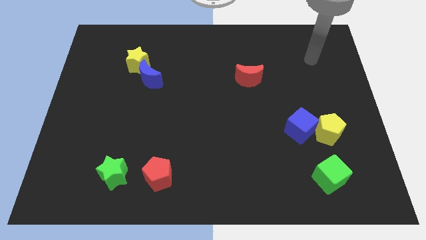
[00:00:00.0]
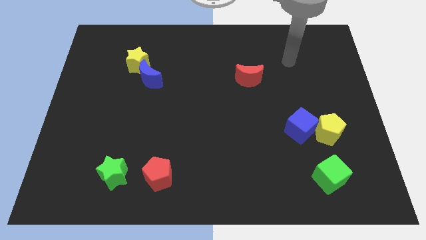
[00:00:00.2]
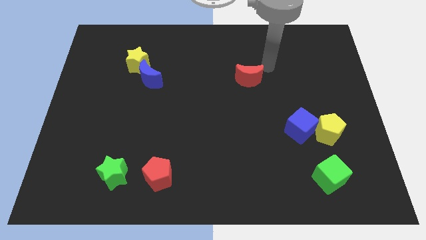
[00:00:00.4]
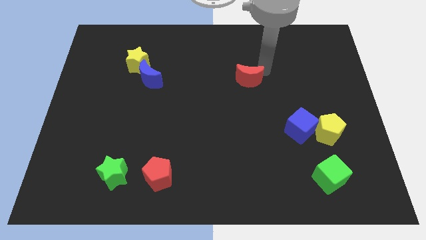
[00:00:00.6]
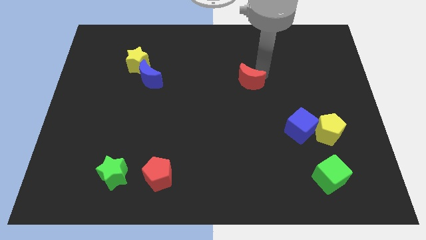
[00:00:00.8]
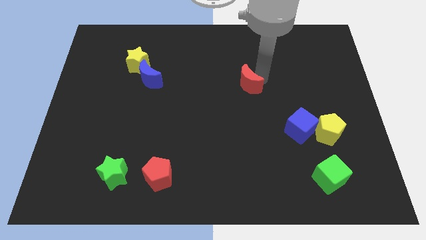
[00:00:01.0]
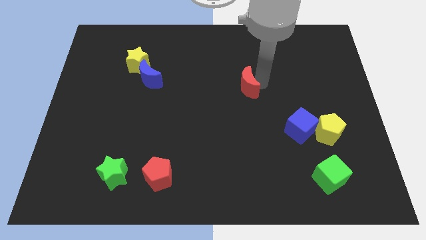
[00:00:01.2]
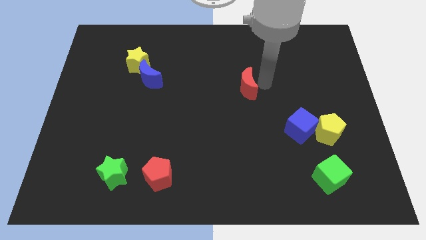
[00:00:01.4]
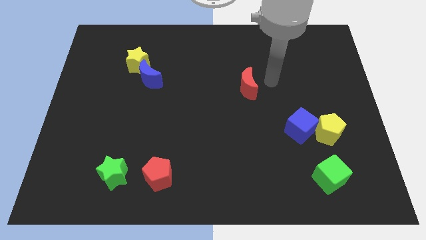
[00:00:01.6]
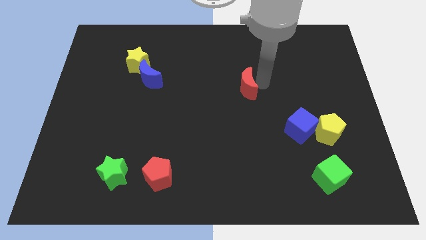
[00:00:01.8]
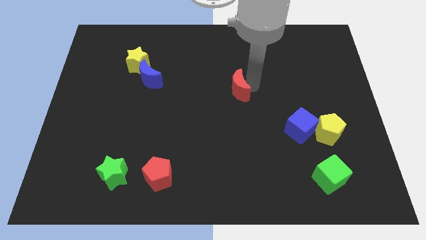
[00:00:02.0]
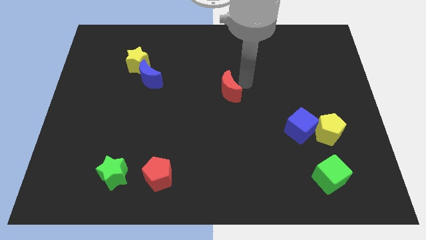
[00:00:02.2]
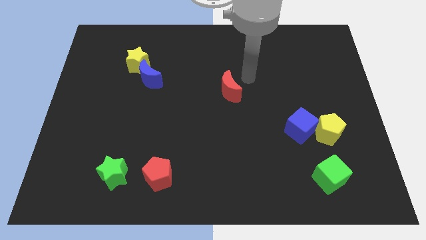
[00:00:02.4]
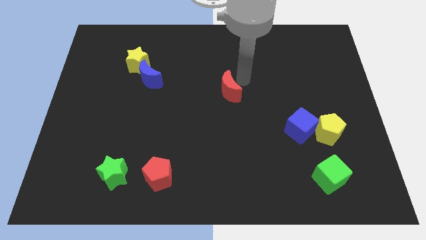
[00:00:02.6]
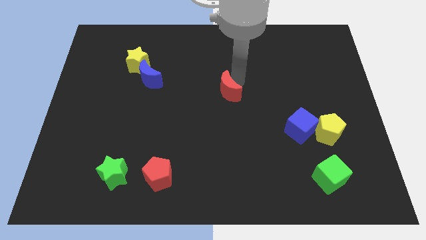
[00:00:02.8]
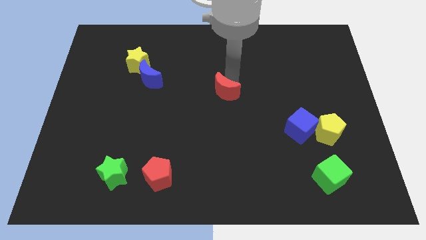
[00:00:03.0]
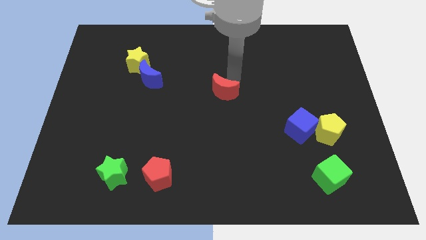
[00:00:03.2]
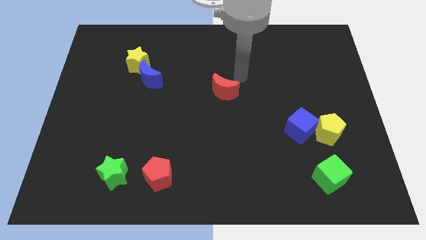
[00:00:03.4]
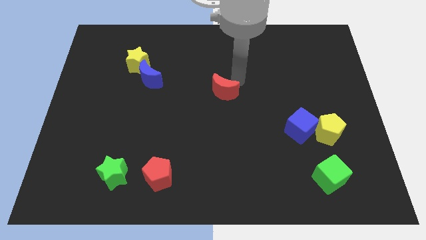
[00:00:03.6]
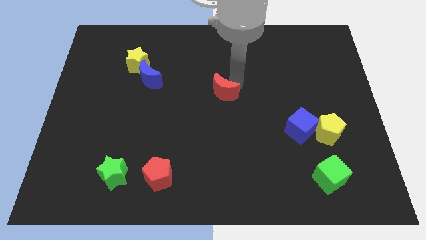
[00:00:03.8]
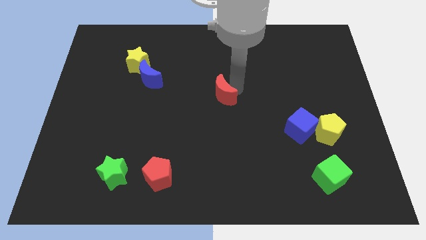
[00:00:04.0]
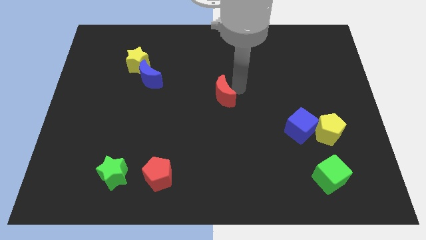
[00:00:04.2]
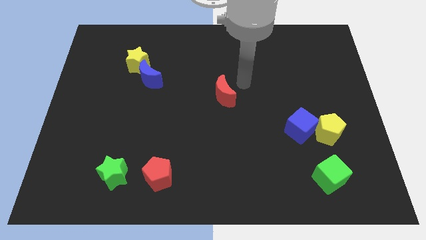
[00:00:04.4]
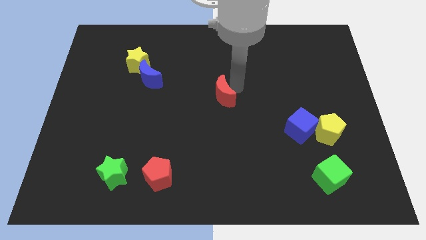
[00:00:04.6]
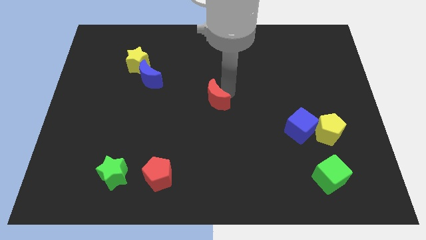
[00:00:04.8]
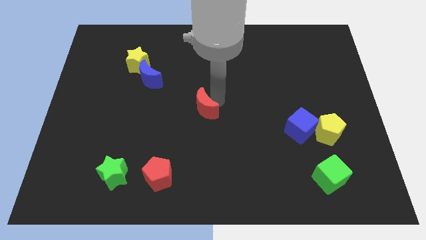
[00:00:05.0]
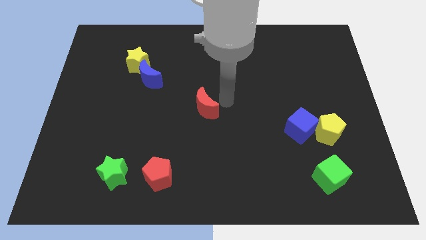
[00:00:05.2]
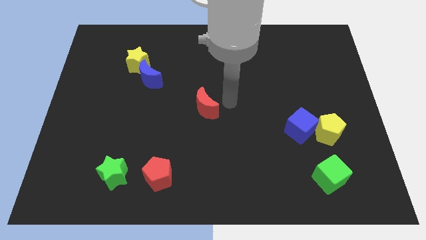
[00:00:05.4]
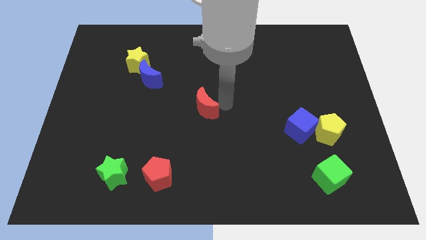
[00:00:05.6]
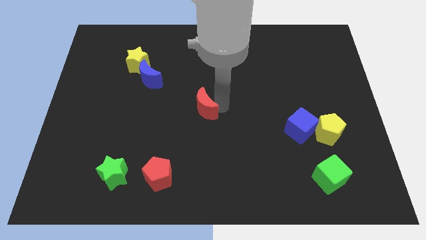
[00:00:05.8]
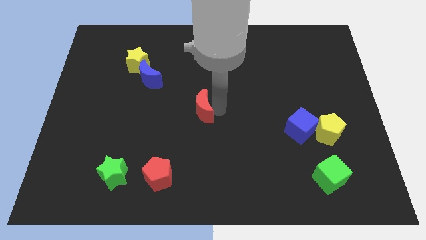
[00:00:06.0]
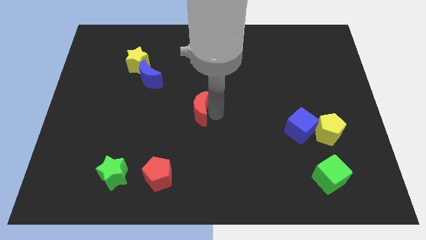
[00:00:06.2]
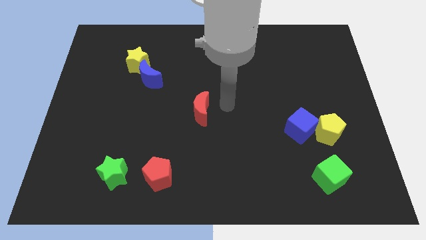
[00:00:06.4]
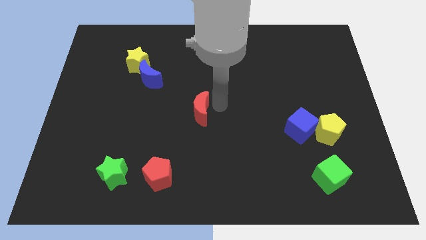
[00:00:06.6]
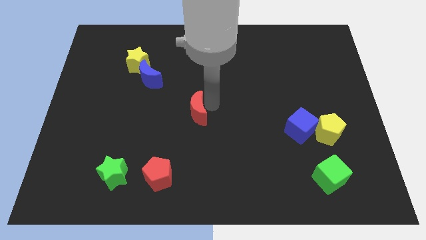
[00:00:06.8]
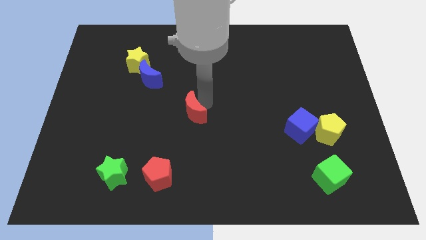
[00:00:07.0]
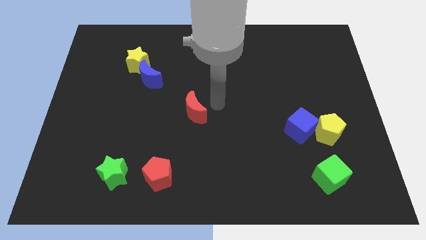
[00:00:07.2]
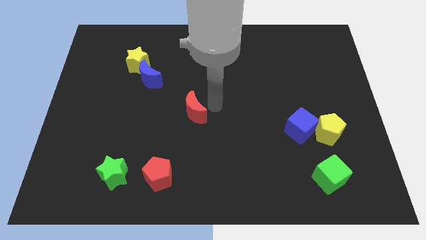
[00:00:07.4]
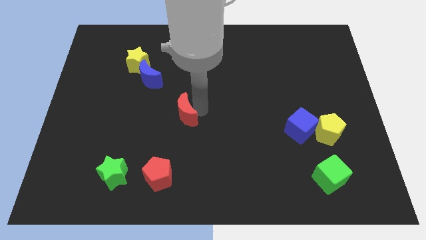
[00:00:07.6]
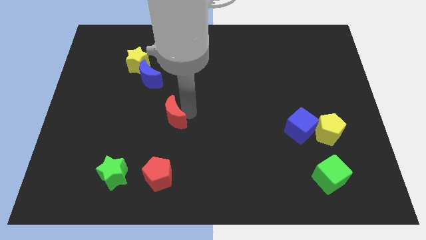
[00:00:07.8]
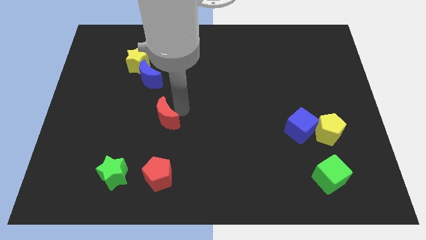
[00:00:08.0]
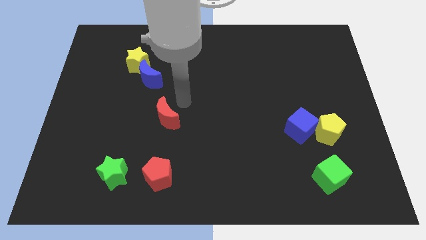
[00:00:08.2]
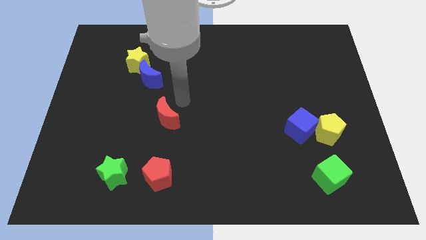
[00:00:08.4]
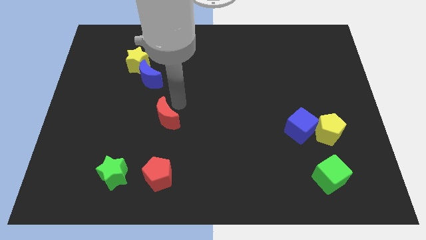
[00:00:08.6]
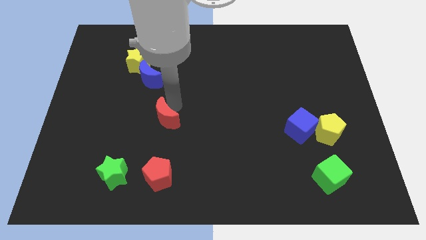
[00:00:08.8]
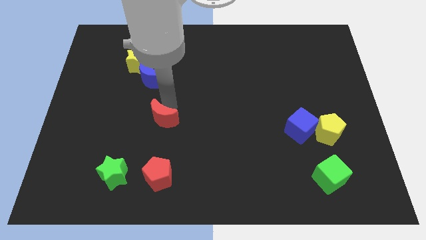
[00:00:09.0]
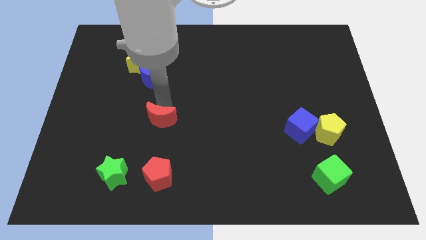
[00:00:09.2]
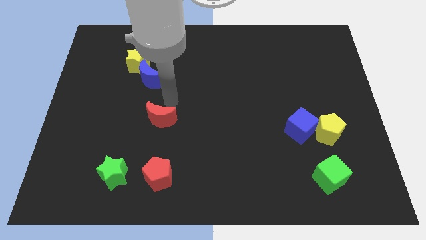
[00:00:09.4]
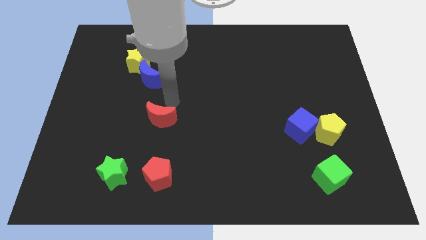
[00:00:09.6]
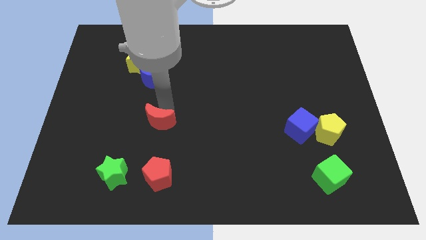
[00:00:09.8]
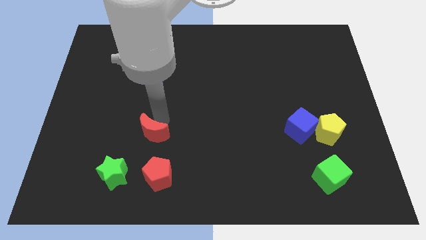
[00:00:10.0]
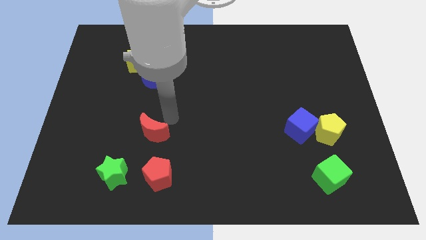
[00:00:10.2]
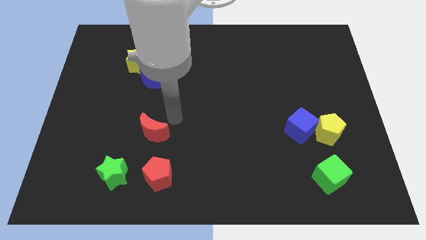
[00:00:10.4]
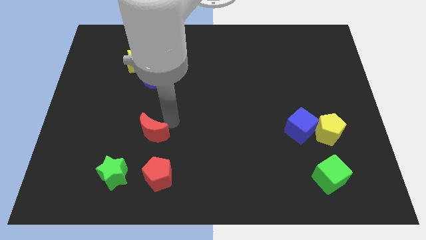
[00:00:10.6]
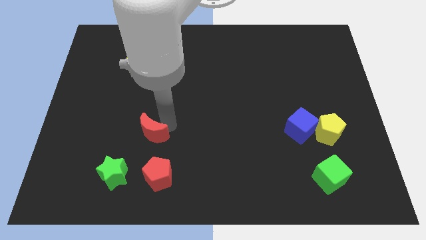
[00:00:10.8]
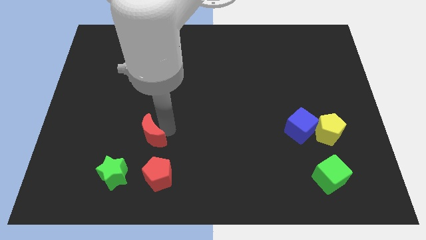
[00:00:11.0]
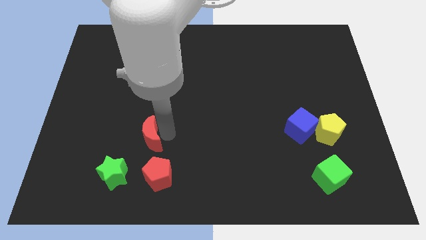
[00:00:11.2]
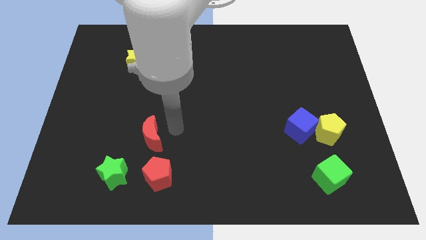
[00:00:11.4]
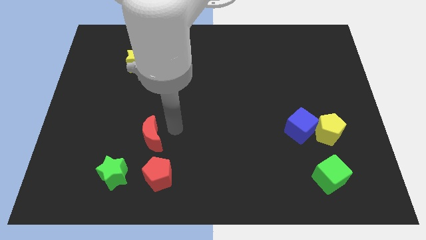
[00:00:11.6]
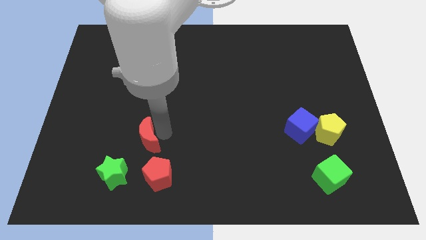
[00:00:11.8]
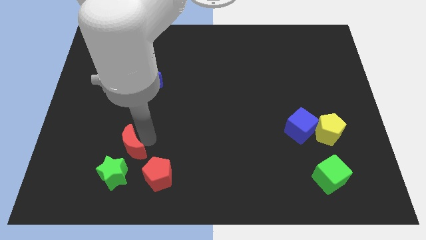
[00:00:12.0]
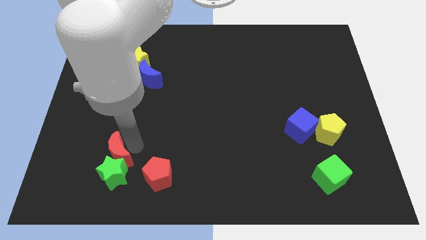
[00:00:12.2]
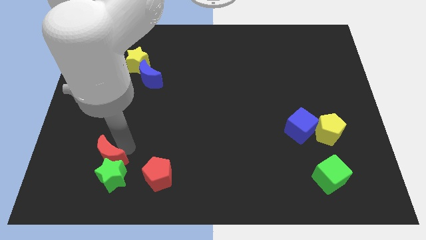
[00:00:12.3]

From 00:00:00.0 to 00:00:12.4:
slide the red moon just left of the red pentagon
